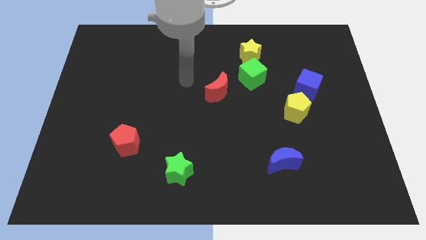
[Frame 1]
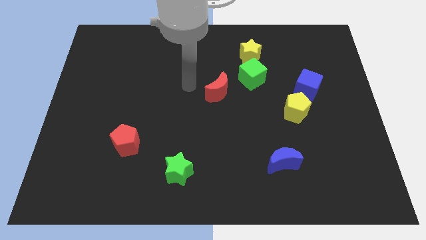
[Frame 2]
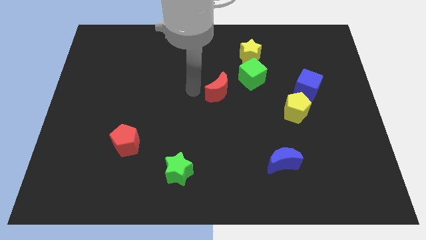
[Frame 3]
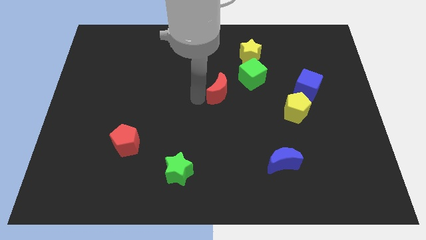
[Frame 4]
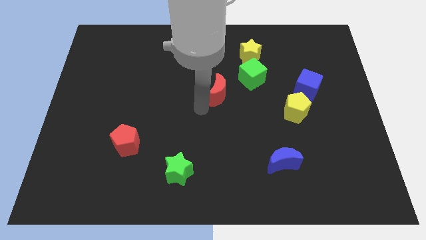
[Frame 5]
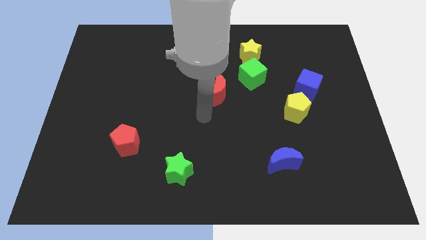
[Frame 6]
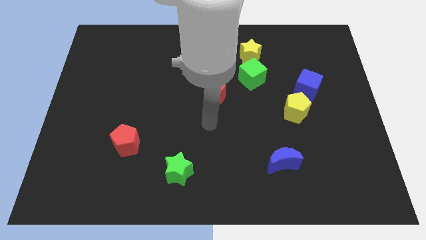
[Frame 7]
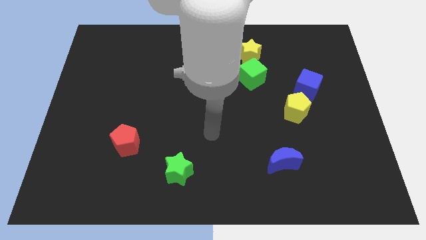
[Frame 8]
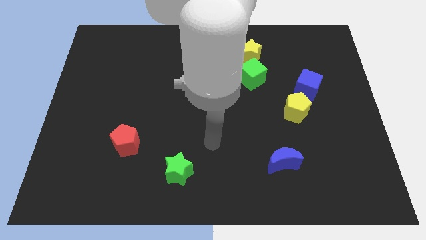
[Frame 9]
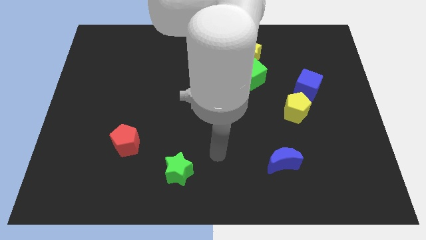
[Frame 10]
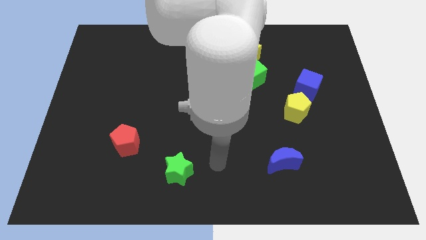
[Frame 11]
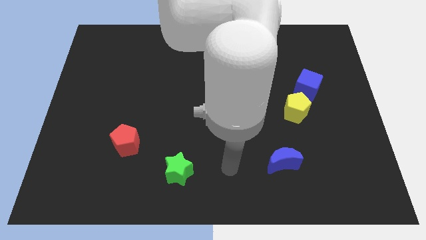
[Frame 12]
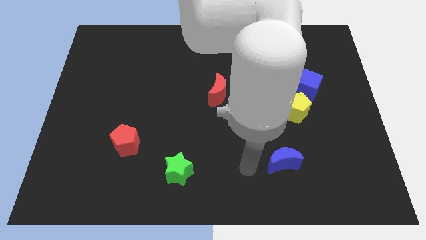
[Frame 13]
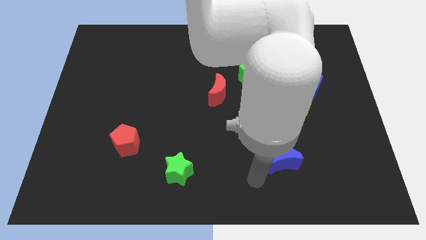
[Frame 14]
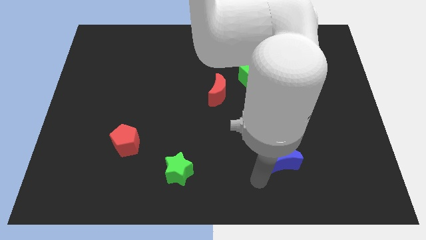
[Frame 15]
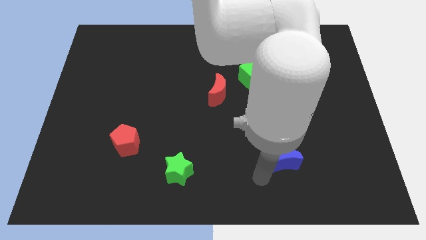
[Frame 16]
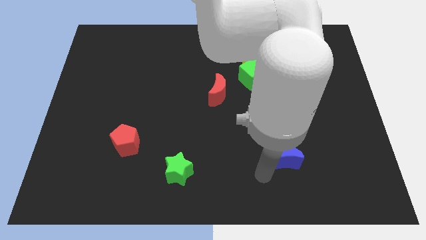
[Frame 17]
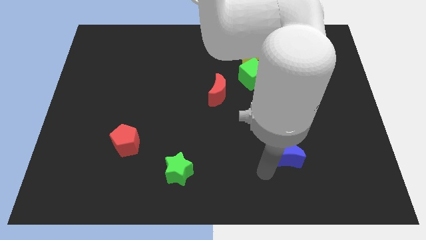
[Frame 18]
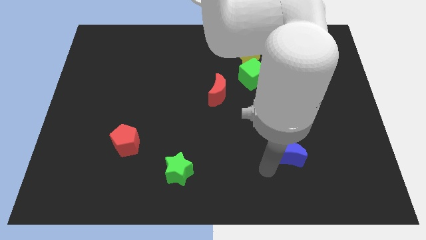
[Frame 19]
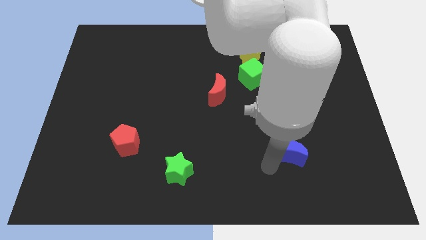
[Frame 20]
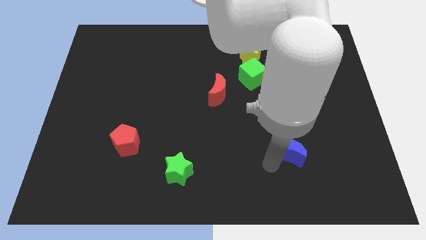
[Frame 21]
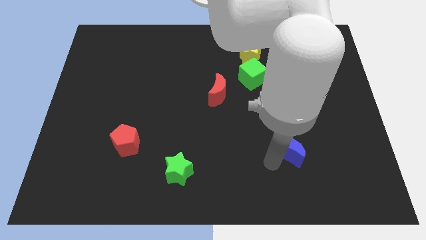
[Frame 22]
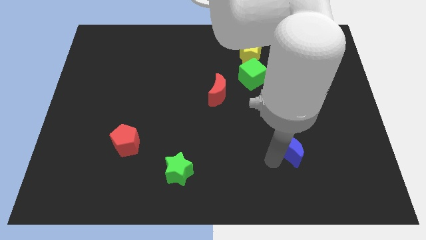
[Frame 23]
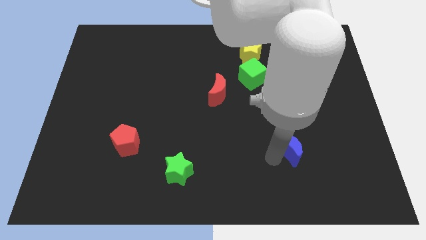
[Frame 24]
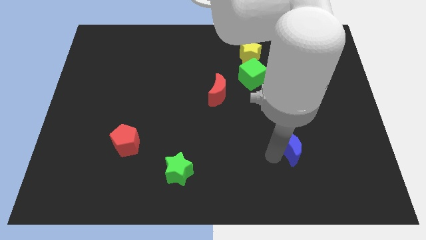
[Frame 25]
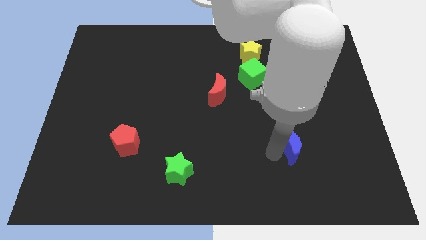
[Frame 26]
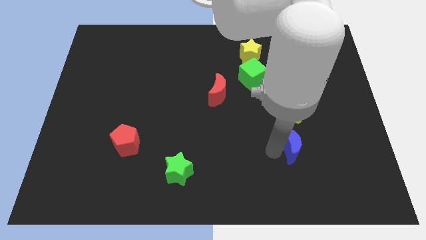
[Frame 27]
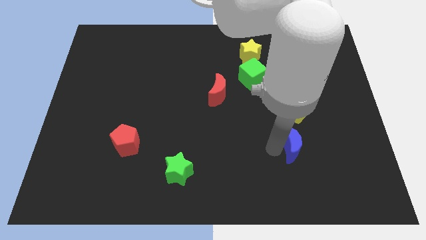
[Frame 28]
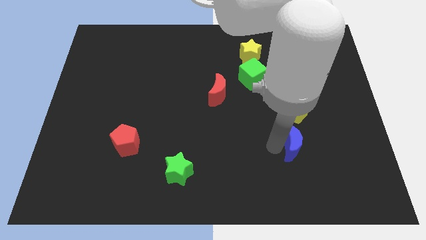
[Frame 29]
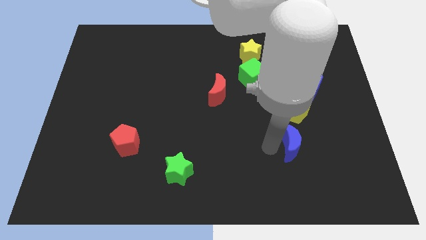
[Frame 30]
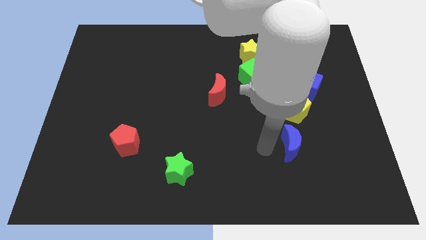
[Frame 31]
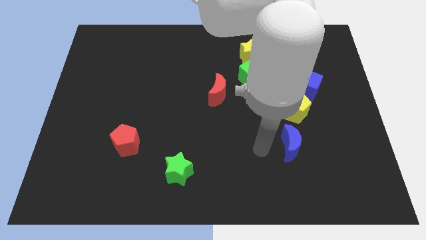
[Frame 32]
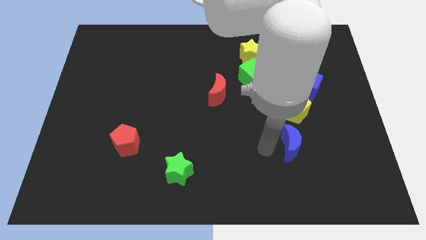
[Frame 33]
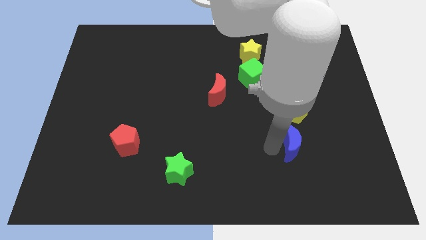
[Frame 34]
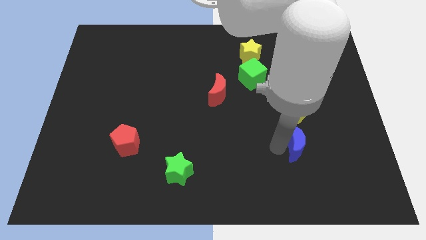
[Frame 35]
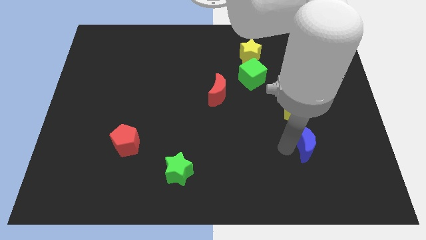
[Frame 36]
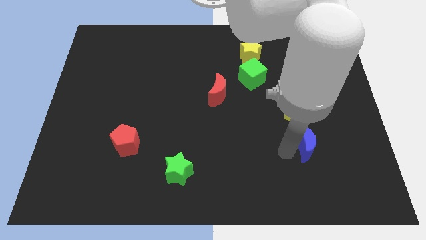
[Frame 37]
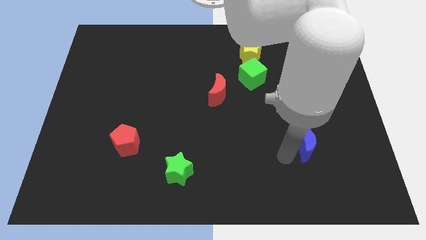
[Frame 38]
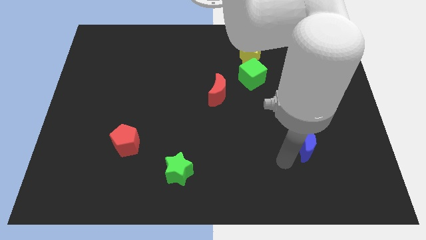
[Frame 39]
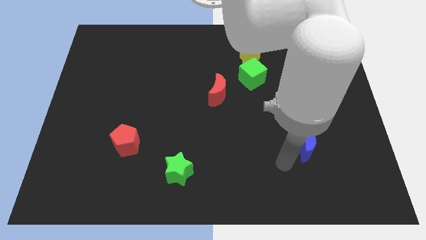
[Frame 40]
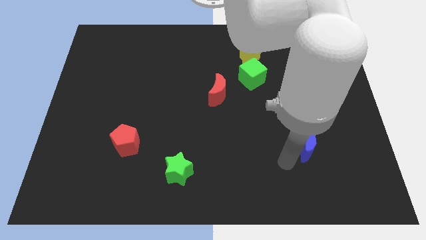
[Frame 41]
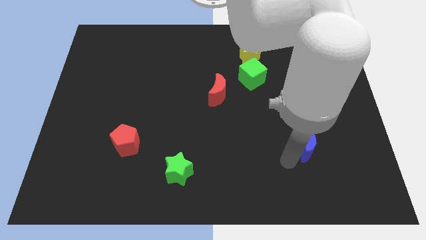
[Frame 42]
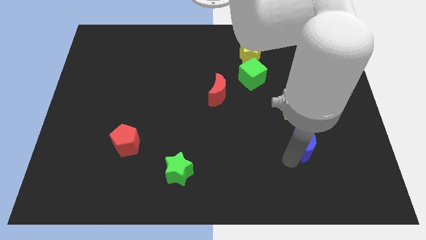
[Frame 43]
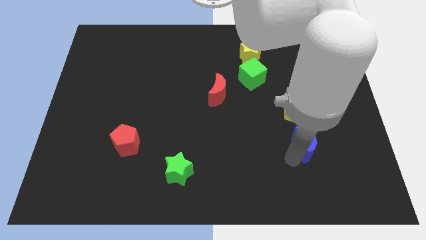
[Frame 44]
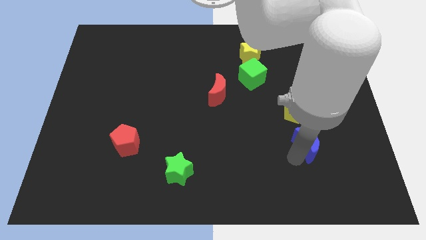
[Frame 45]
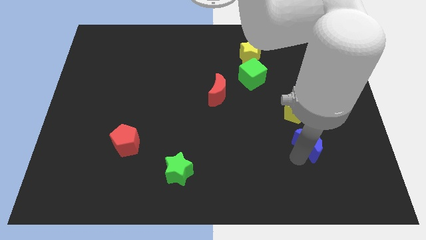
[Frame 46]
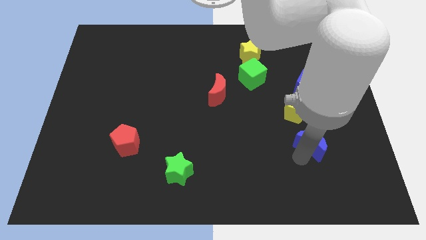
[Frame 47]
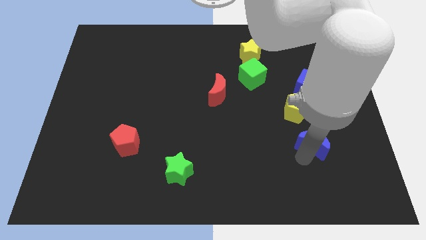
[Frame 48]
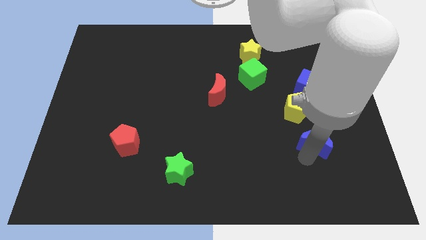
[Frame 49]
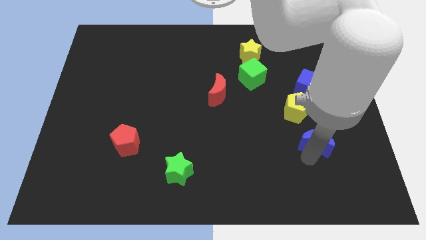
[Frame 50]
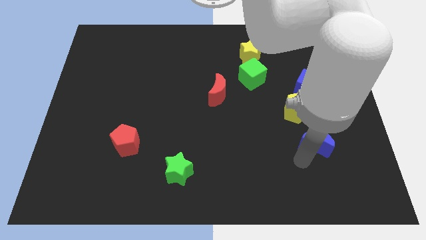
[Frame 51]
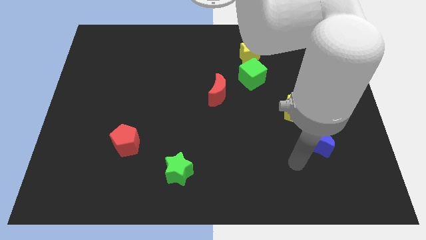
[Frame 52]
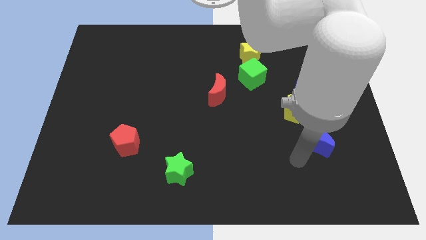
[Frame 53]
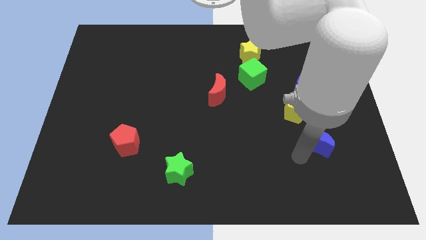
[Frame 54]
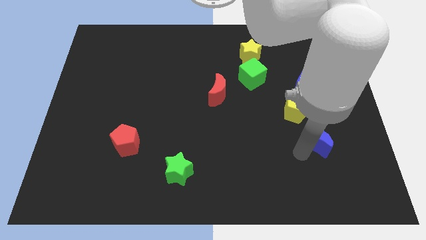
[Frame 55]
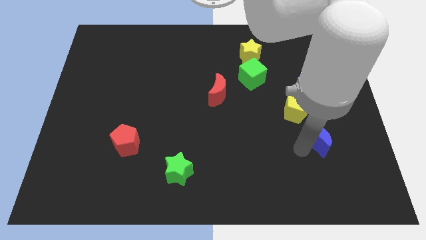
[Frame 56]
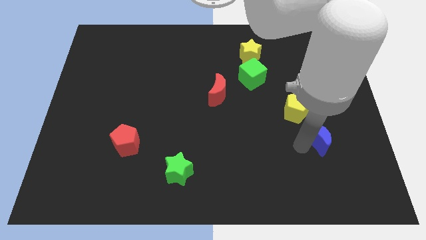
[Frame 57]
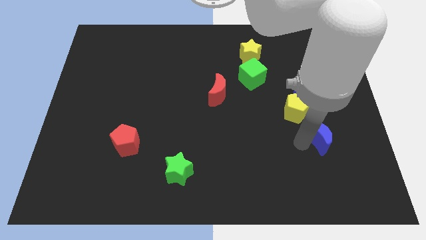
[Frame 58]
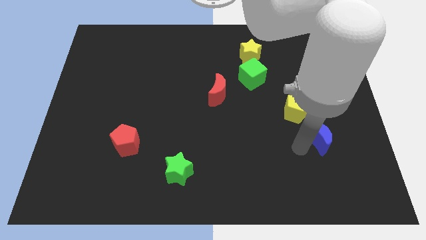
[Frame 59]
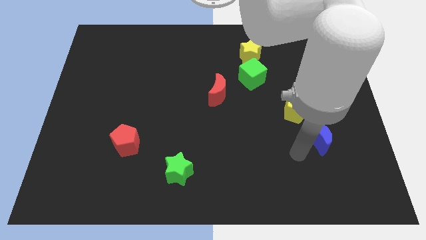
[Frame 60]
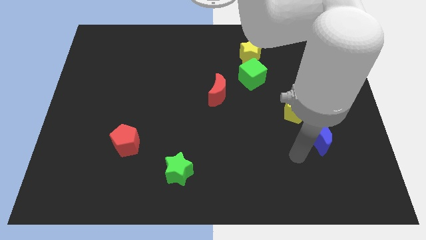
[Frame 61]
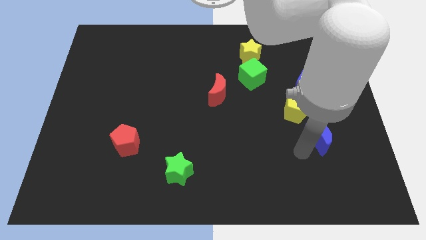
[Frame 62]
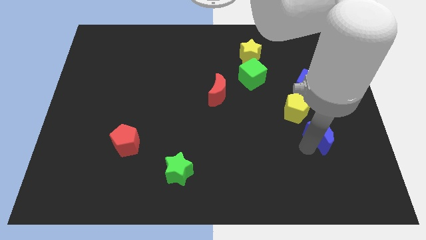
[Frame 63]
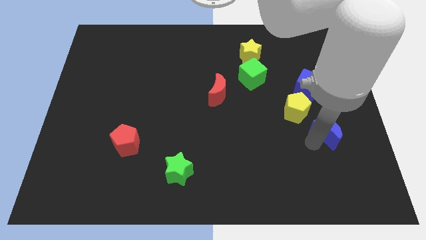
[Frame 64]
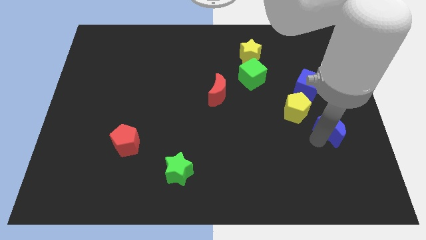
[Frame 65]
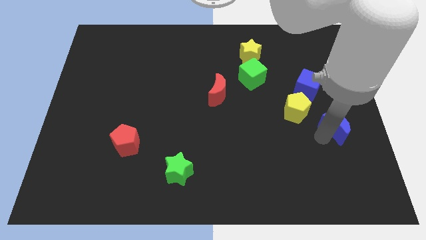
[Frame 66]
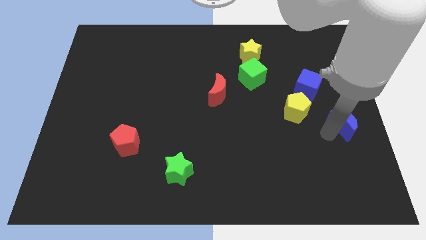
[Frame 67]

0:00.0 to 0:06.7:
move the blue moon to the right side of the board
